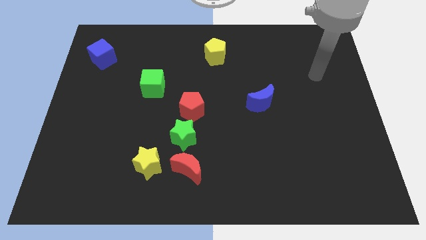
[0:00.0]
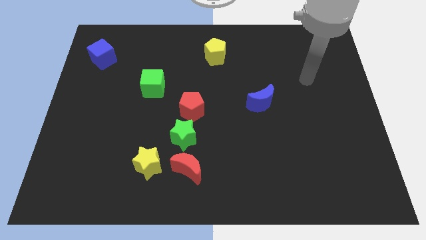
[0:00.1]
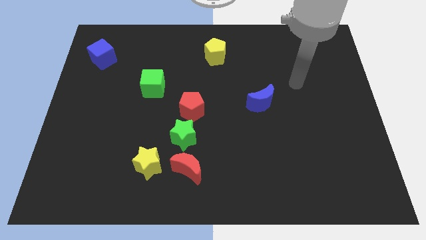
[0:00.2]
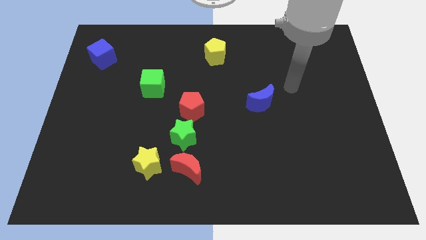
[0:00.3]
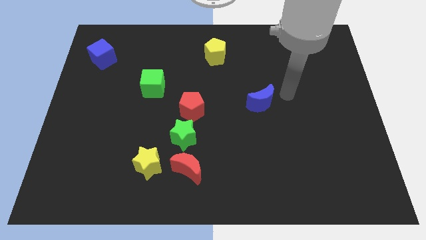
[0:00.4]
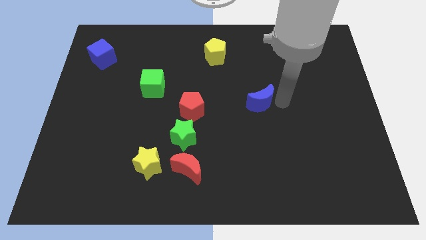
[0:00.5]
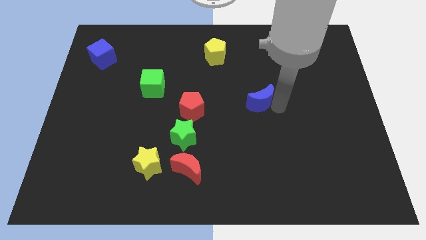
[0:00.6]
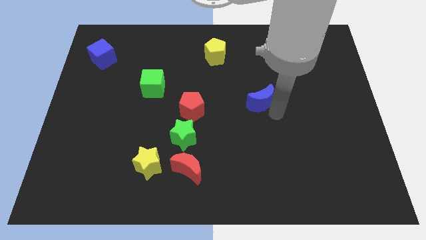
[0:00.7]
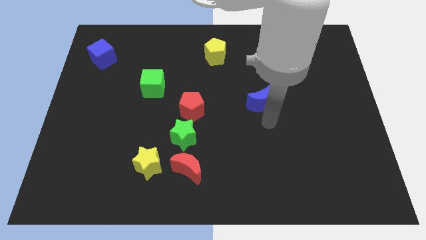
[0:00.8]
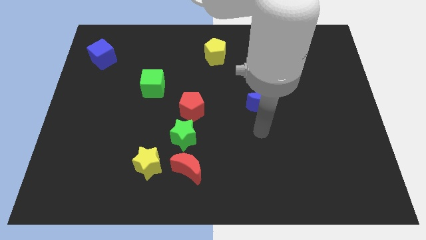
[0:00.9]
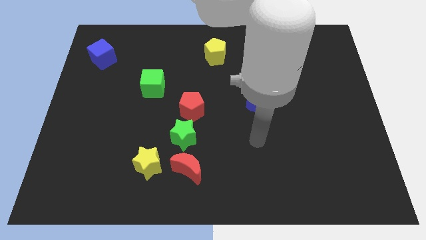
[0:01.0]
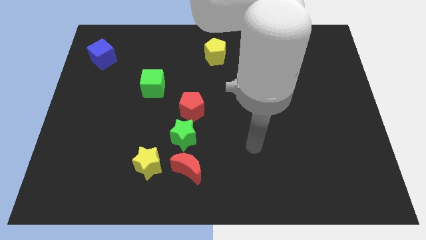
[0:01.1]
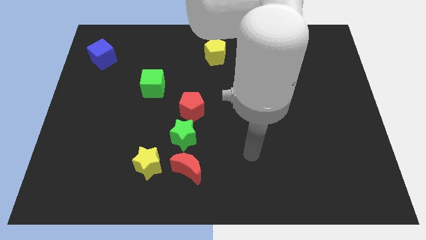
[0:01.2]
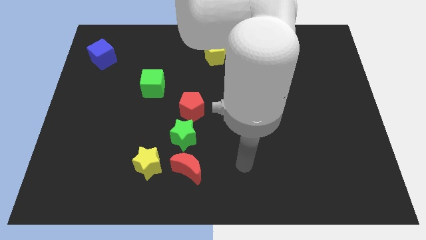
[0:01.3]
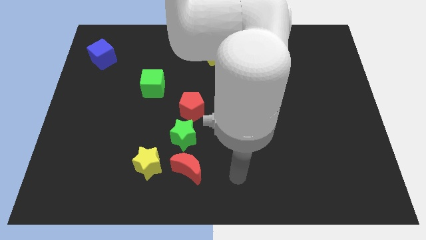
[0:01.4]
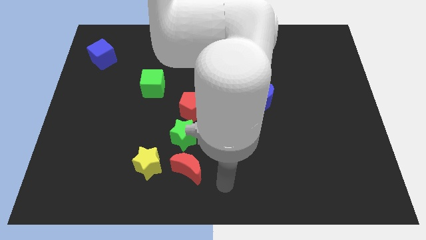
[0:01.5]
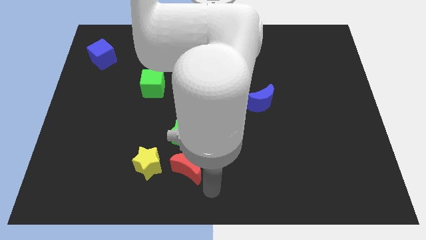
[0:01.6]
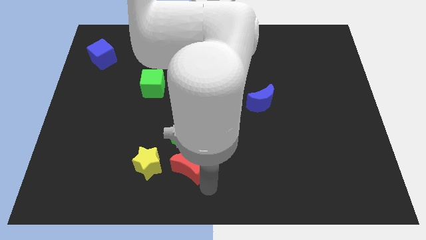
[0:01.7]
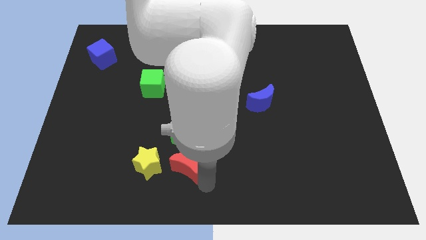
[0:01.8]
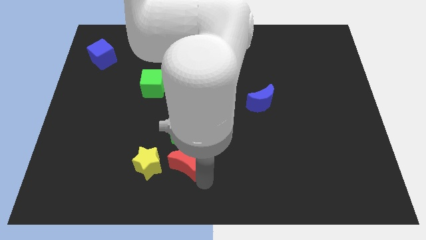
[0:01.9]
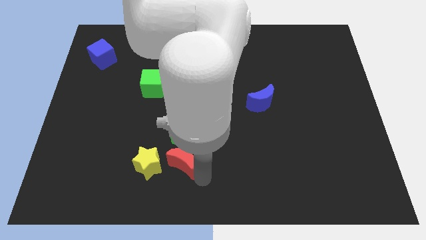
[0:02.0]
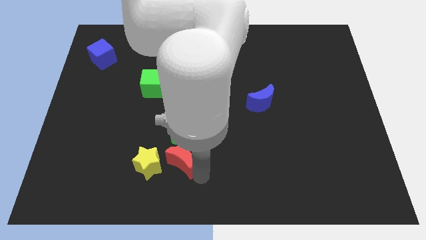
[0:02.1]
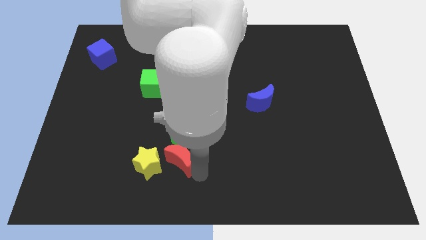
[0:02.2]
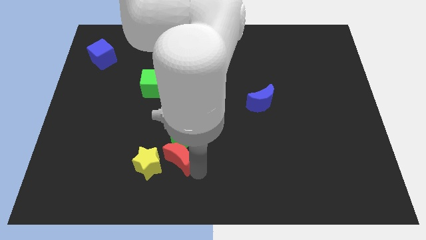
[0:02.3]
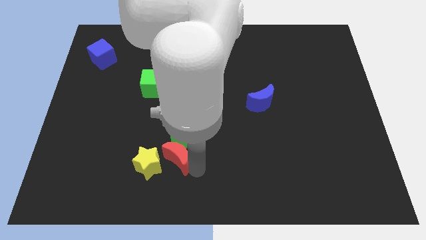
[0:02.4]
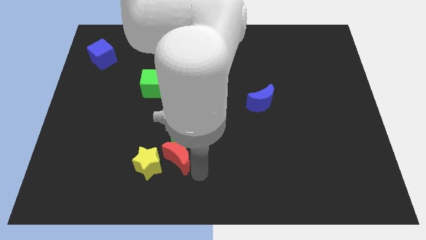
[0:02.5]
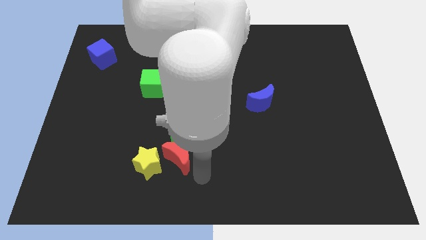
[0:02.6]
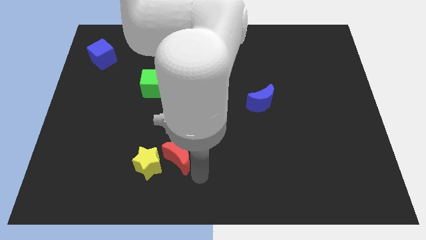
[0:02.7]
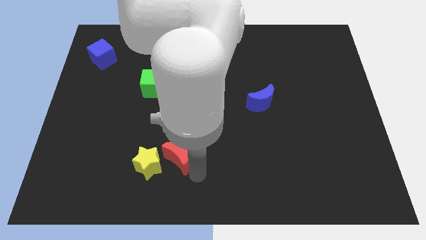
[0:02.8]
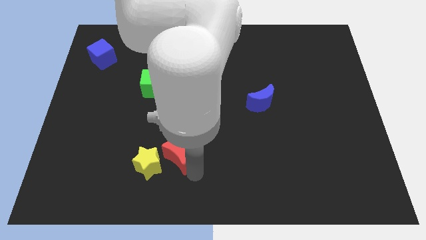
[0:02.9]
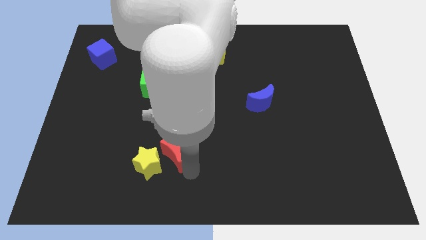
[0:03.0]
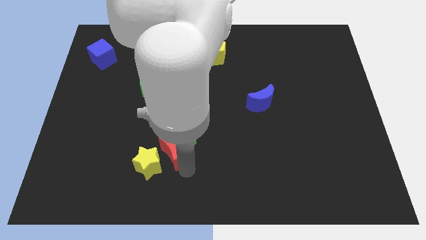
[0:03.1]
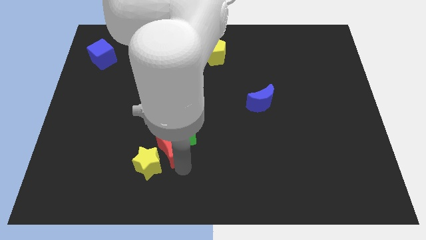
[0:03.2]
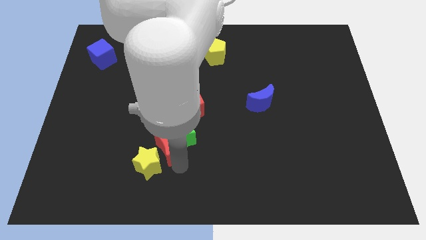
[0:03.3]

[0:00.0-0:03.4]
slightly move the red moon diagonally upwards and left

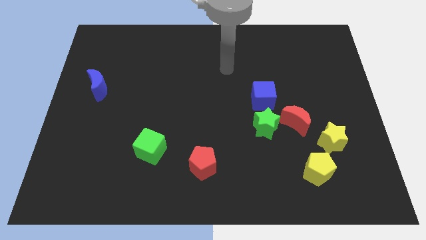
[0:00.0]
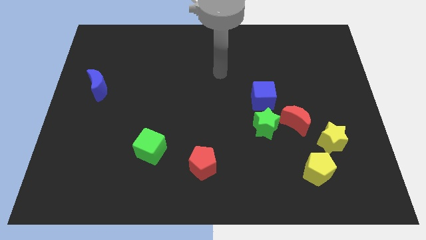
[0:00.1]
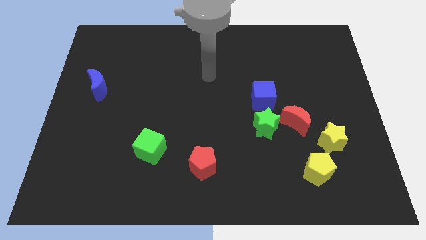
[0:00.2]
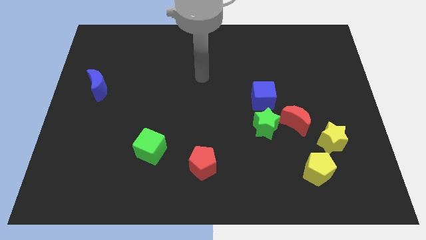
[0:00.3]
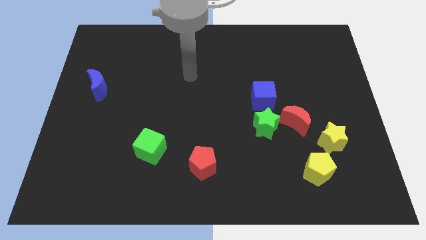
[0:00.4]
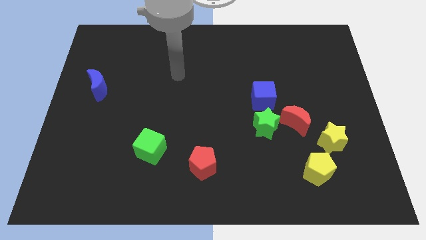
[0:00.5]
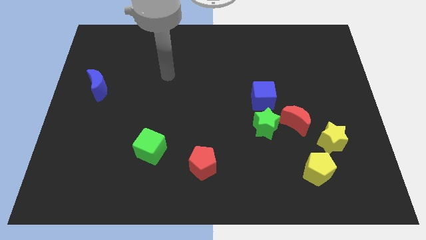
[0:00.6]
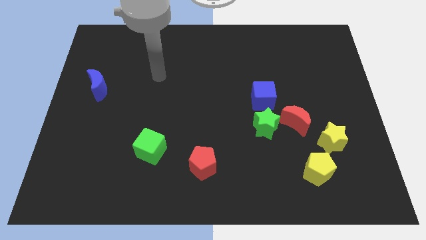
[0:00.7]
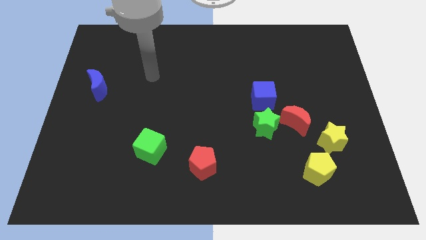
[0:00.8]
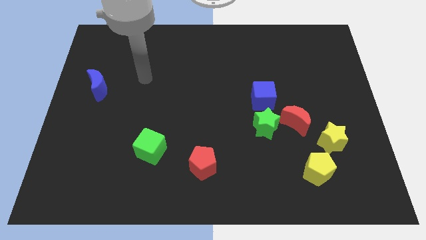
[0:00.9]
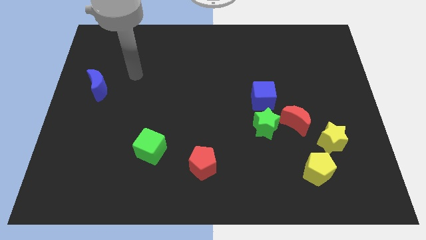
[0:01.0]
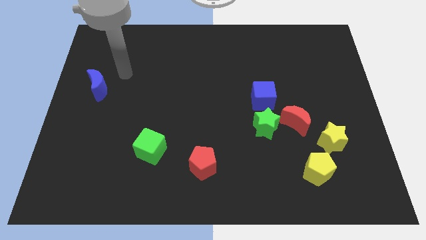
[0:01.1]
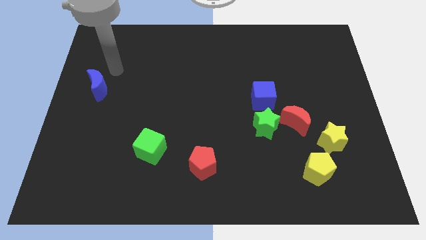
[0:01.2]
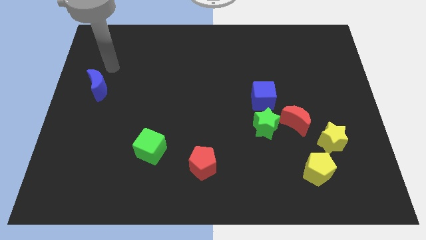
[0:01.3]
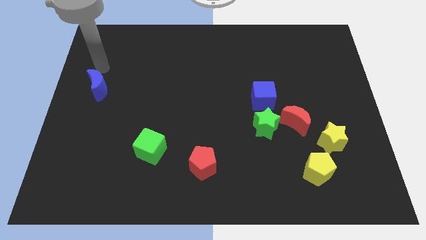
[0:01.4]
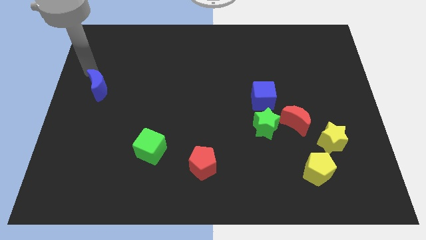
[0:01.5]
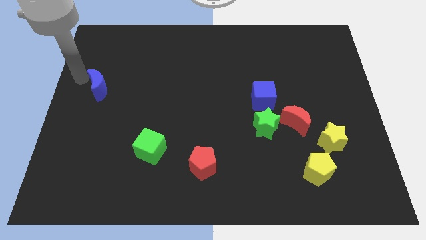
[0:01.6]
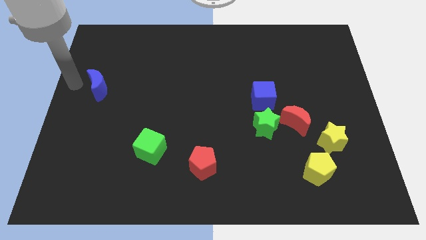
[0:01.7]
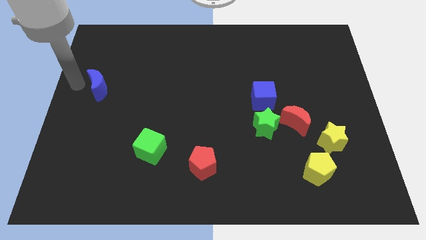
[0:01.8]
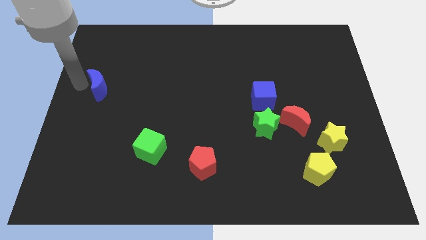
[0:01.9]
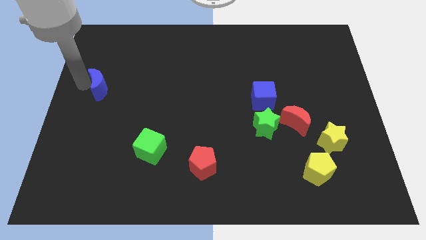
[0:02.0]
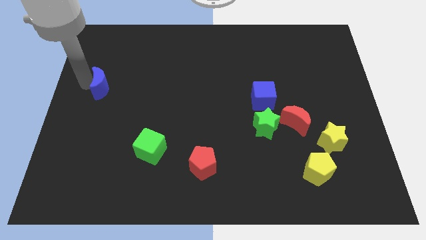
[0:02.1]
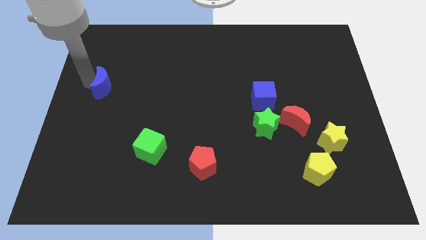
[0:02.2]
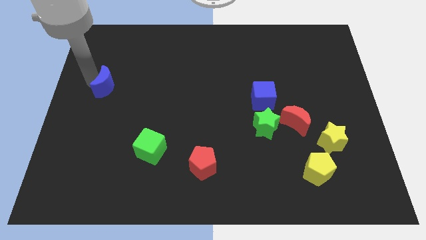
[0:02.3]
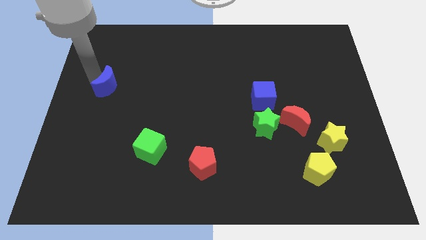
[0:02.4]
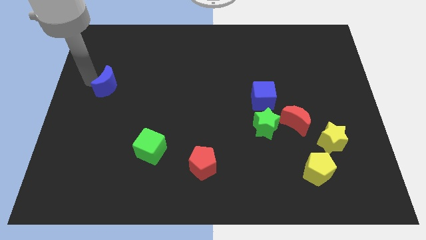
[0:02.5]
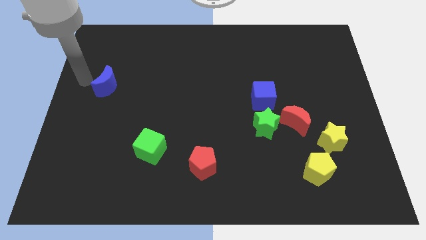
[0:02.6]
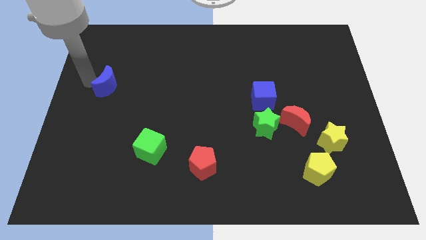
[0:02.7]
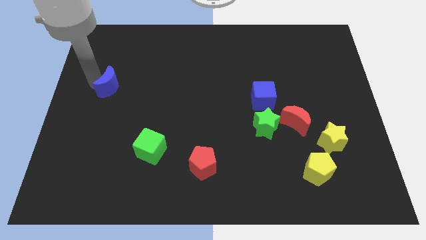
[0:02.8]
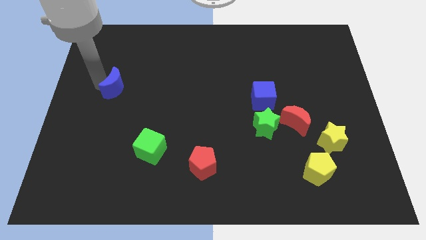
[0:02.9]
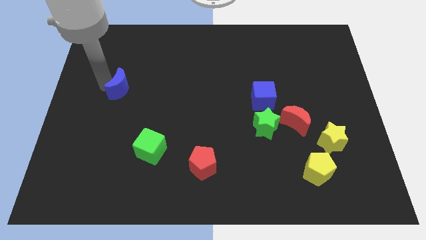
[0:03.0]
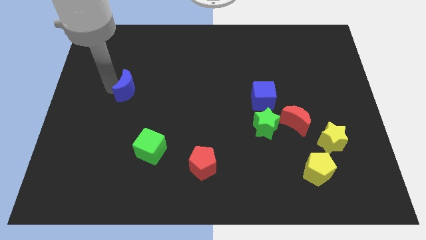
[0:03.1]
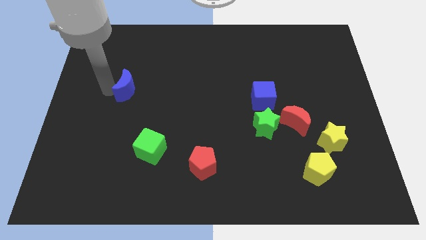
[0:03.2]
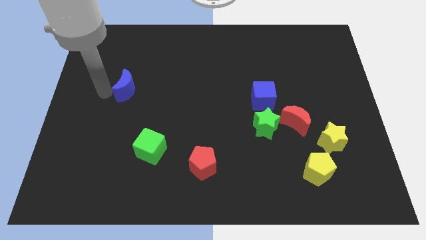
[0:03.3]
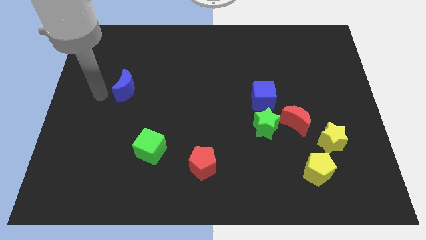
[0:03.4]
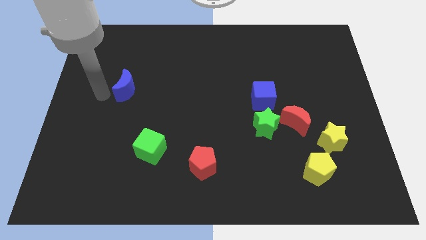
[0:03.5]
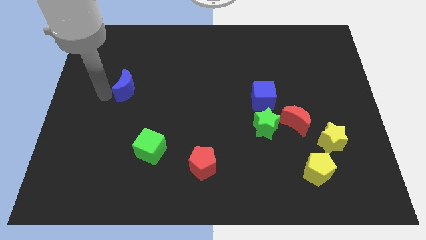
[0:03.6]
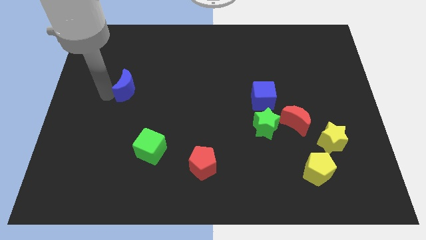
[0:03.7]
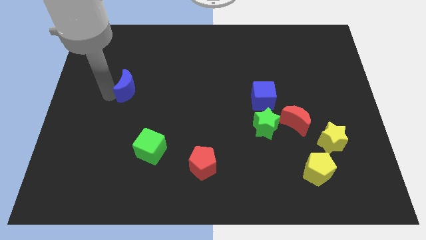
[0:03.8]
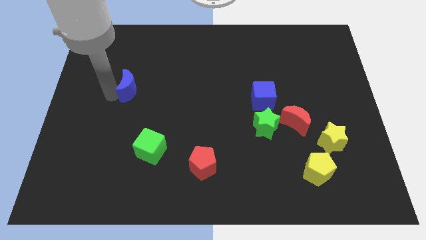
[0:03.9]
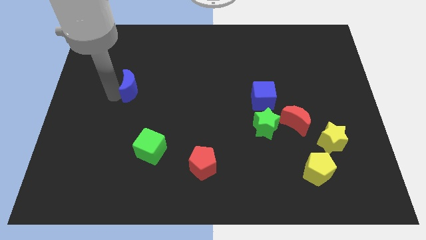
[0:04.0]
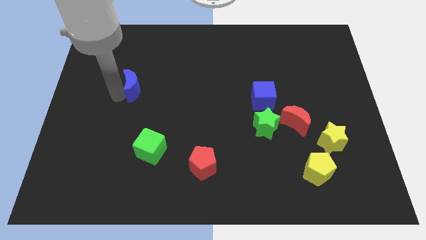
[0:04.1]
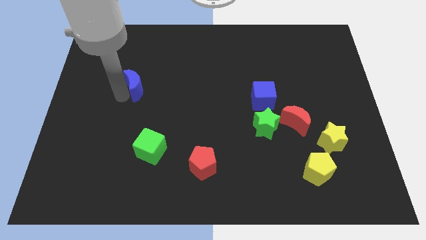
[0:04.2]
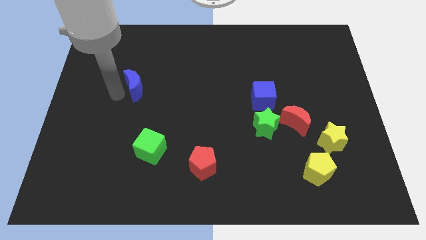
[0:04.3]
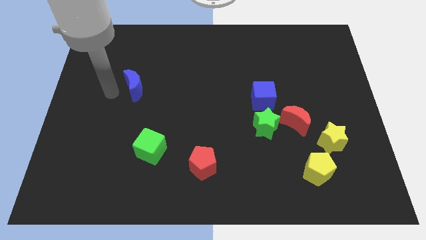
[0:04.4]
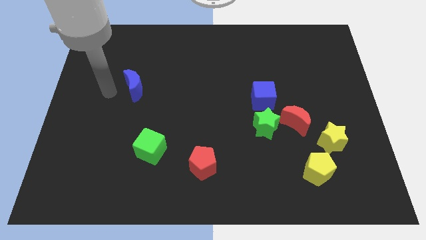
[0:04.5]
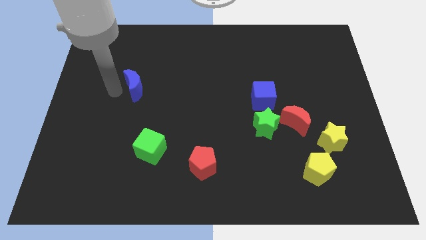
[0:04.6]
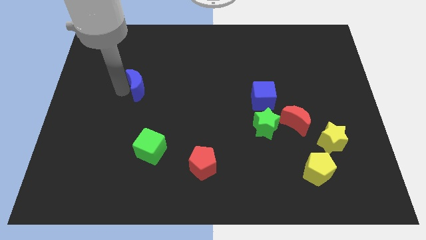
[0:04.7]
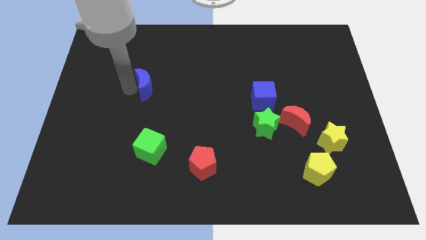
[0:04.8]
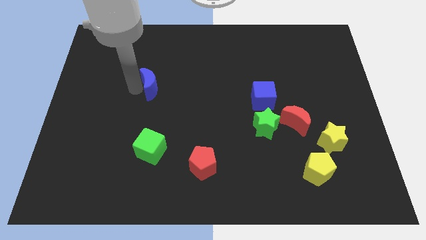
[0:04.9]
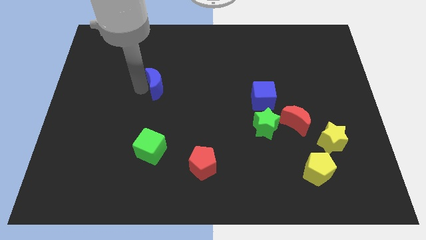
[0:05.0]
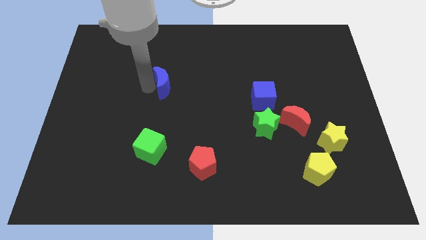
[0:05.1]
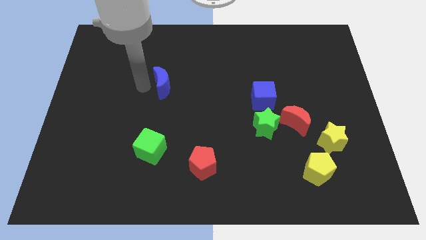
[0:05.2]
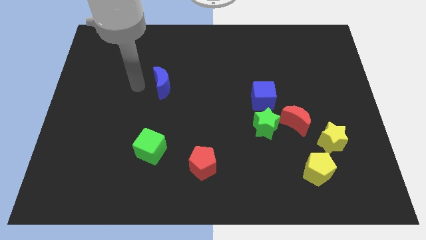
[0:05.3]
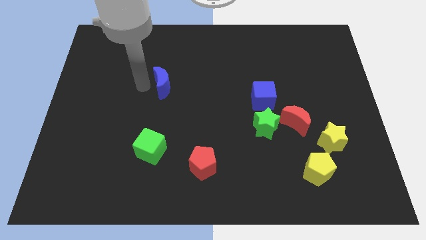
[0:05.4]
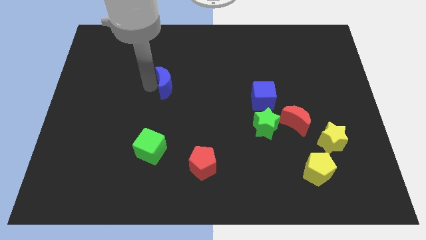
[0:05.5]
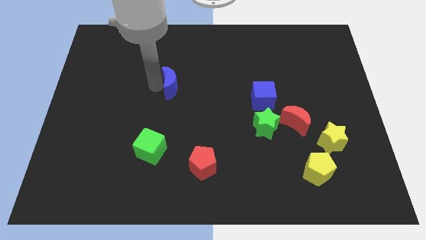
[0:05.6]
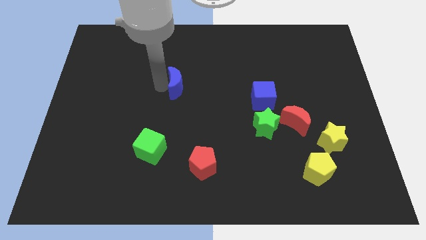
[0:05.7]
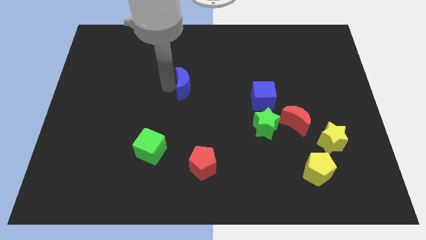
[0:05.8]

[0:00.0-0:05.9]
move the blue moon right
